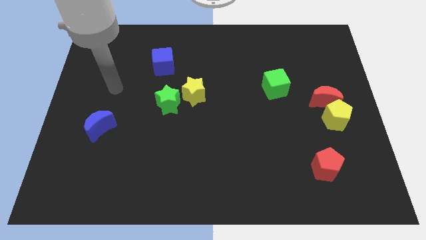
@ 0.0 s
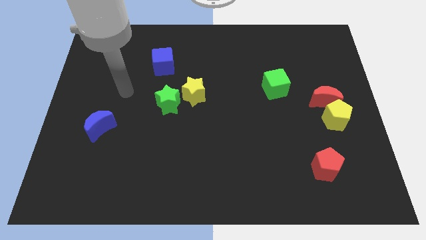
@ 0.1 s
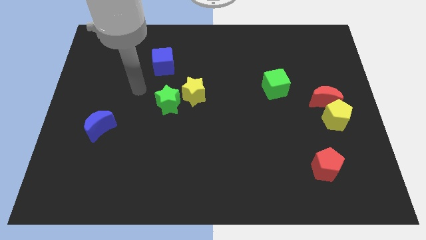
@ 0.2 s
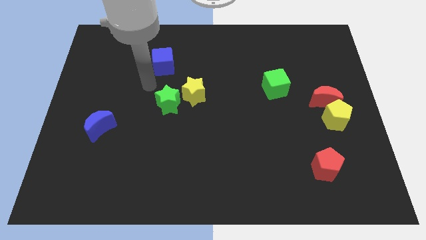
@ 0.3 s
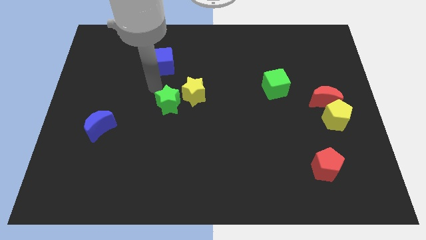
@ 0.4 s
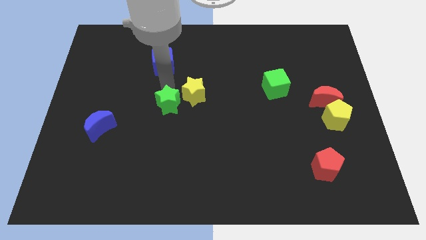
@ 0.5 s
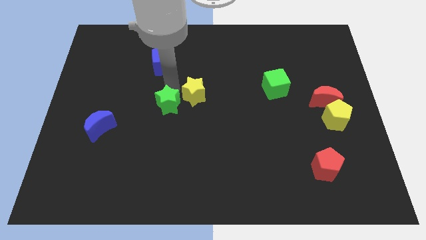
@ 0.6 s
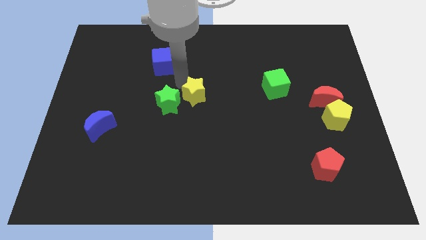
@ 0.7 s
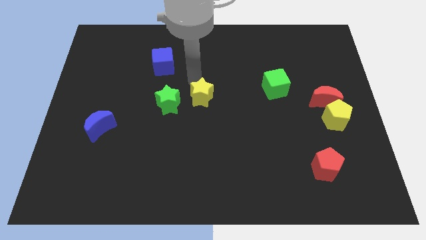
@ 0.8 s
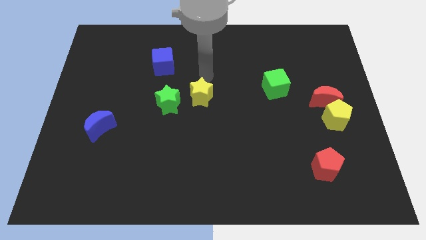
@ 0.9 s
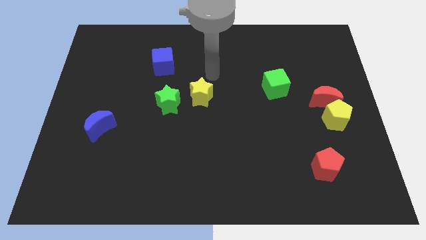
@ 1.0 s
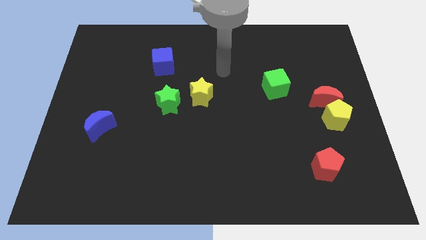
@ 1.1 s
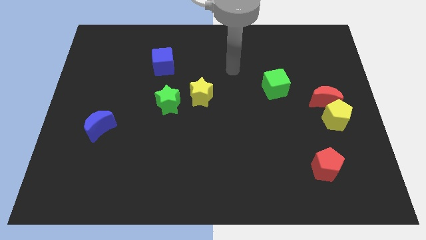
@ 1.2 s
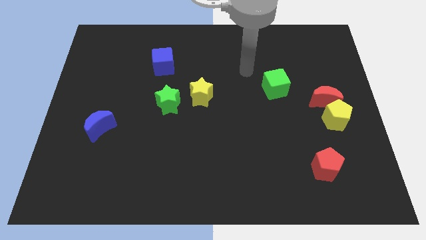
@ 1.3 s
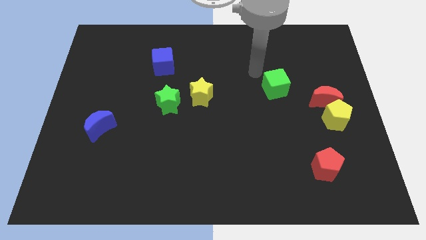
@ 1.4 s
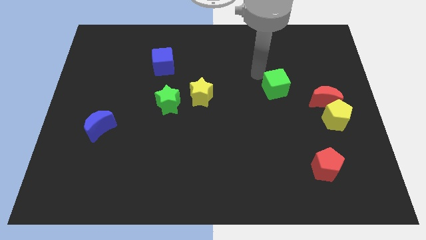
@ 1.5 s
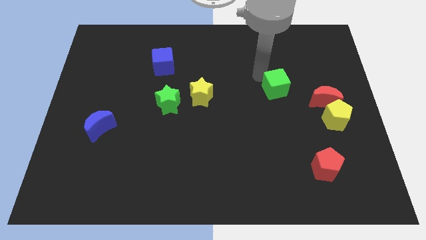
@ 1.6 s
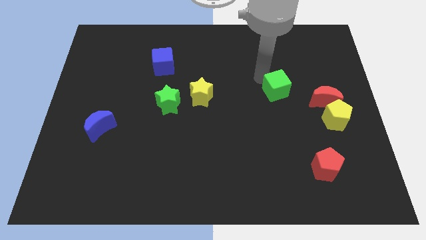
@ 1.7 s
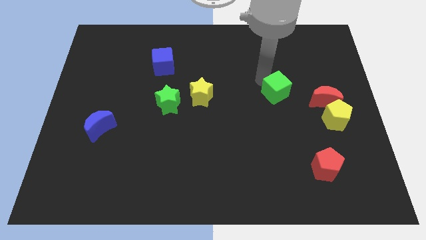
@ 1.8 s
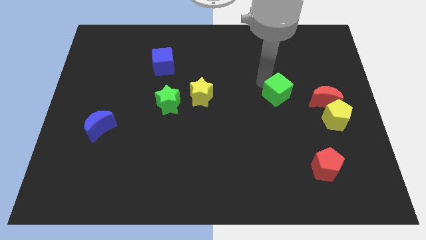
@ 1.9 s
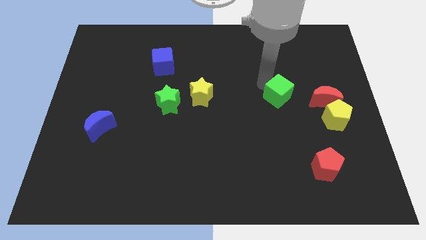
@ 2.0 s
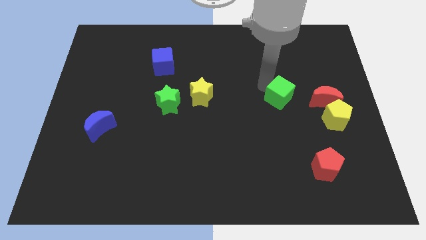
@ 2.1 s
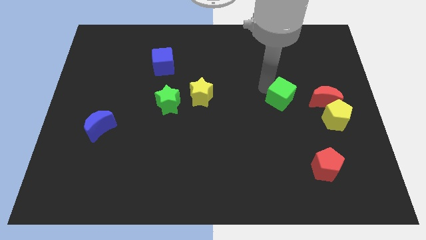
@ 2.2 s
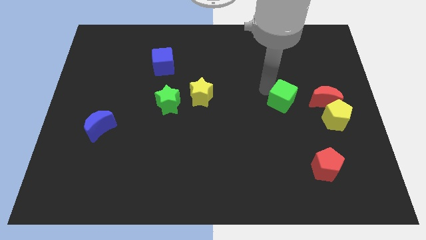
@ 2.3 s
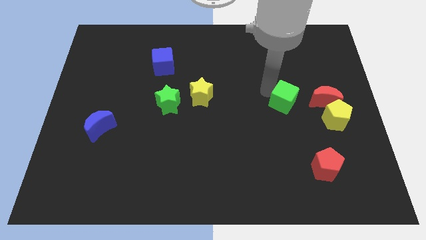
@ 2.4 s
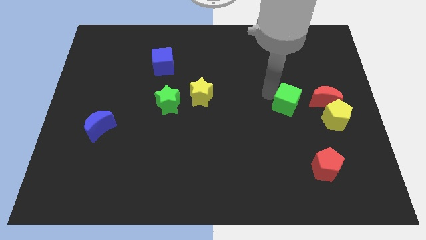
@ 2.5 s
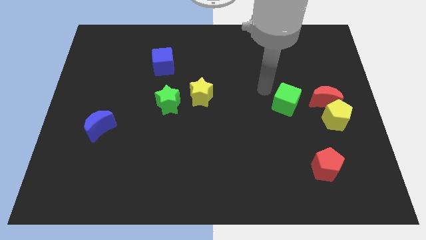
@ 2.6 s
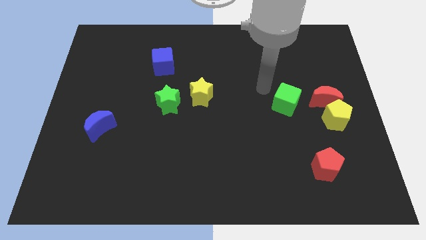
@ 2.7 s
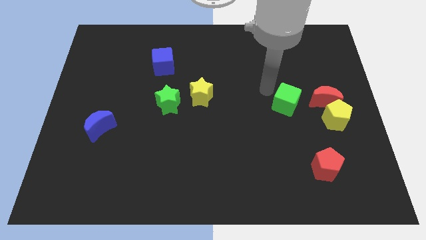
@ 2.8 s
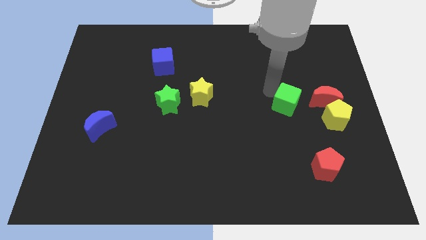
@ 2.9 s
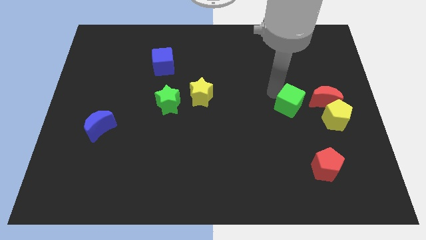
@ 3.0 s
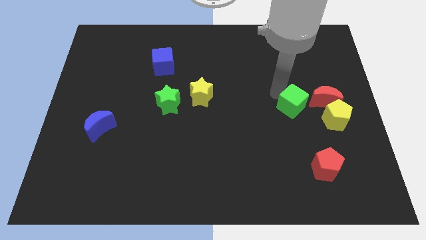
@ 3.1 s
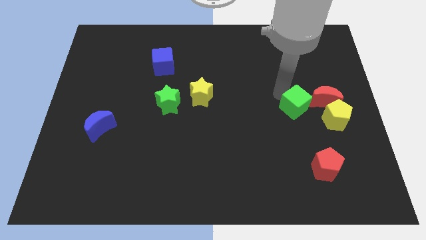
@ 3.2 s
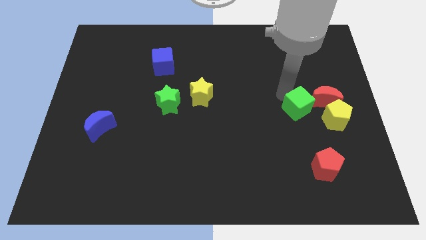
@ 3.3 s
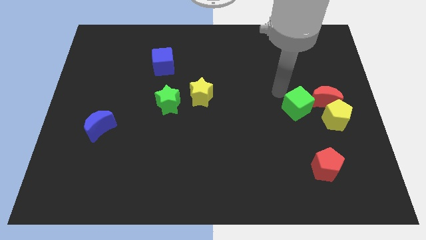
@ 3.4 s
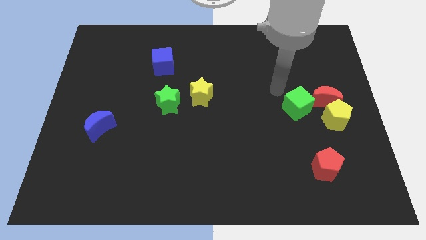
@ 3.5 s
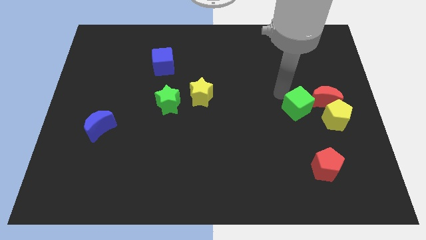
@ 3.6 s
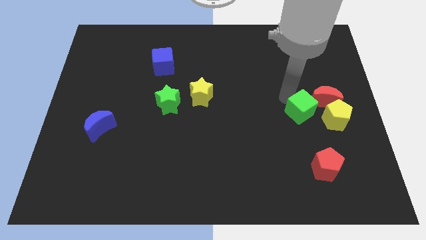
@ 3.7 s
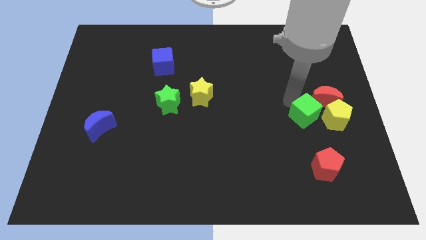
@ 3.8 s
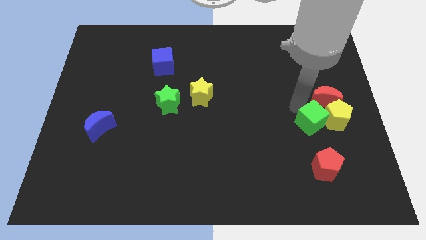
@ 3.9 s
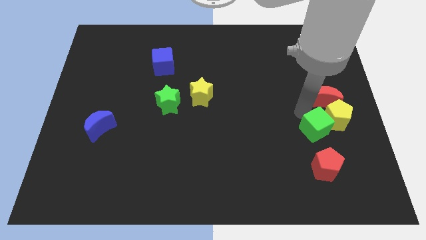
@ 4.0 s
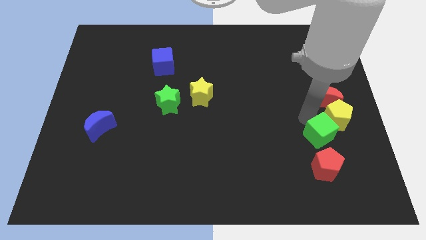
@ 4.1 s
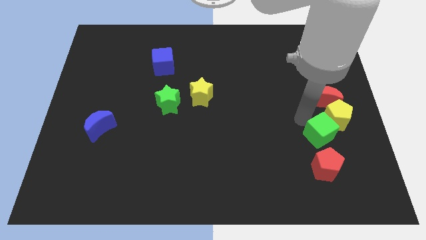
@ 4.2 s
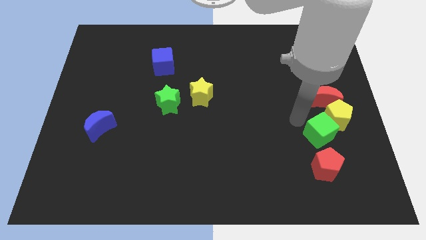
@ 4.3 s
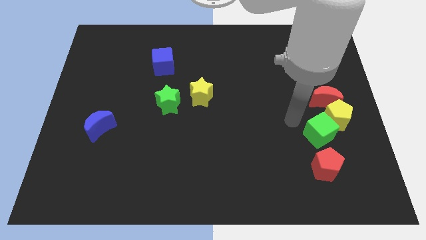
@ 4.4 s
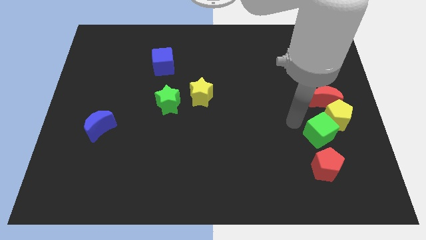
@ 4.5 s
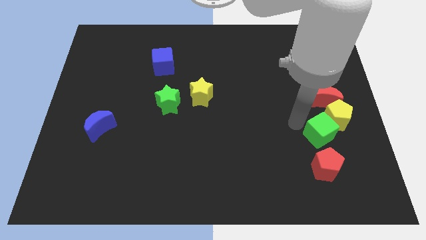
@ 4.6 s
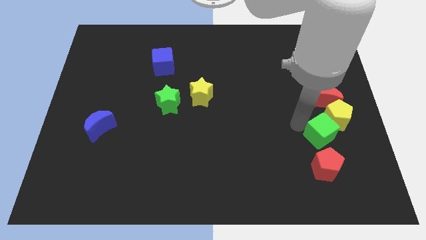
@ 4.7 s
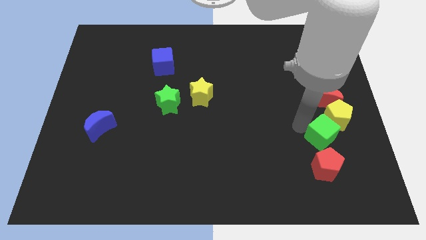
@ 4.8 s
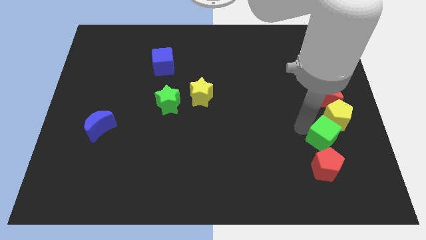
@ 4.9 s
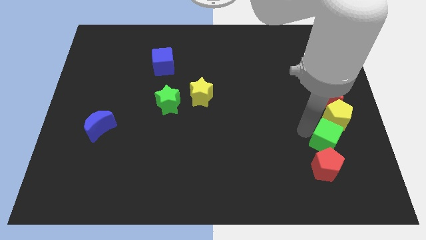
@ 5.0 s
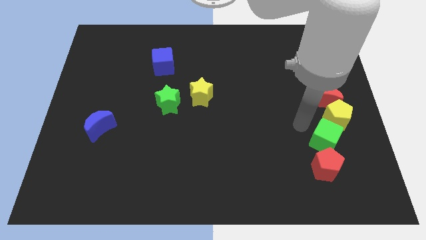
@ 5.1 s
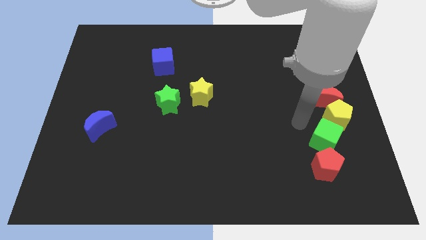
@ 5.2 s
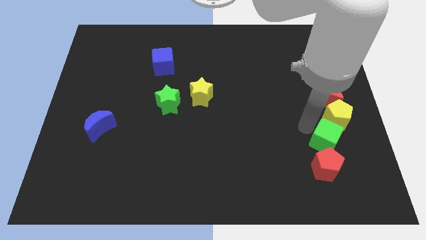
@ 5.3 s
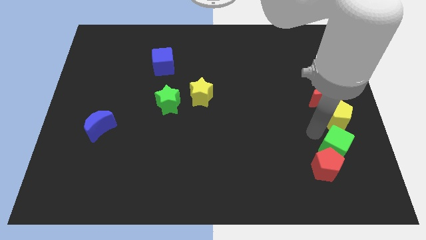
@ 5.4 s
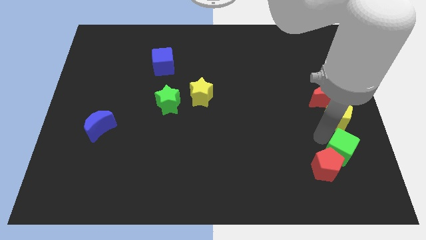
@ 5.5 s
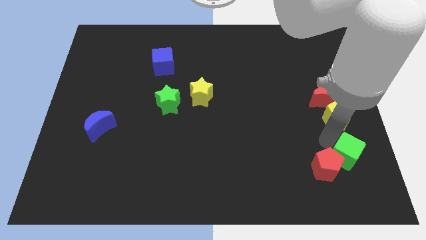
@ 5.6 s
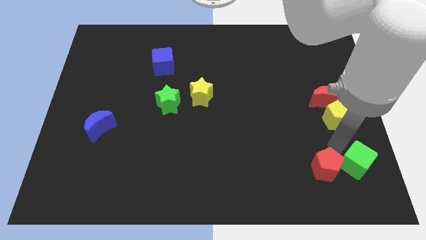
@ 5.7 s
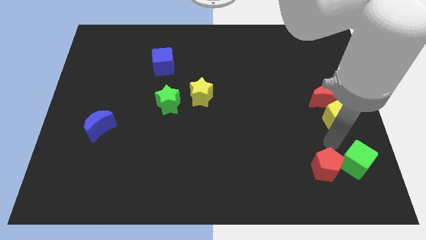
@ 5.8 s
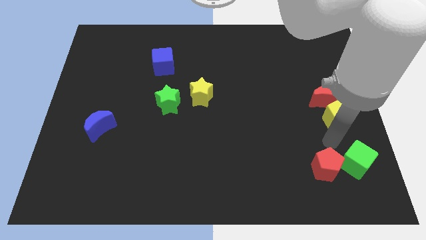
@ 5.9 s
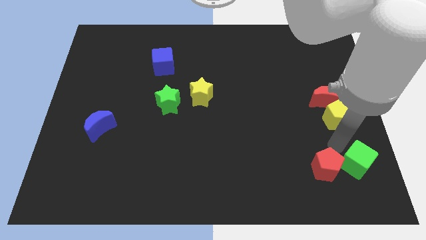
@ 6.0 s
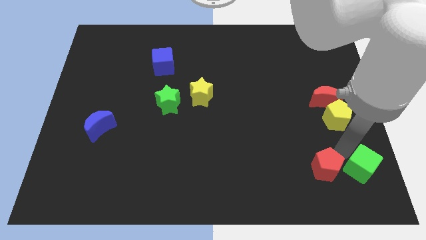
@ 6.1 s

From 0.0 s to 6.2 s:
put the green cube to the lower right corner
